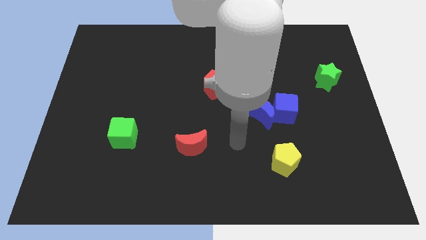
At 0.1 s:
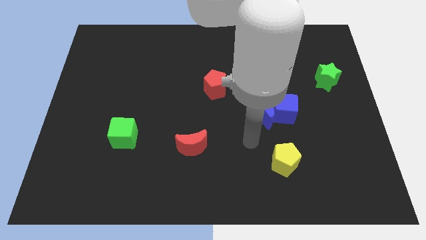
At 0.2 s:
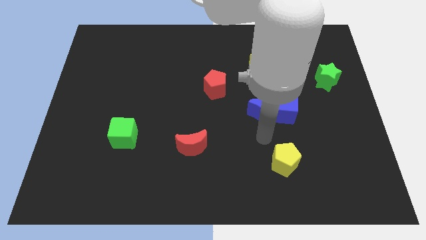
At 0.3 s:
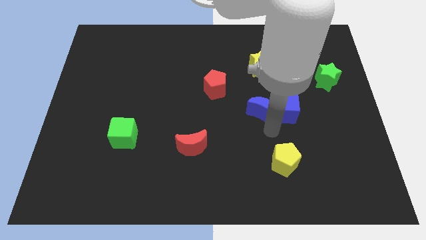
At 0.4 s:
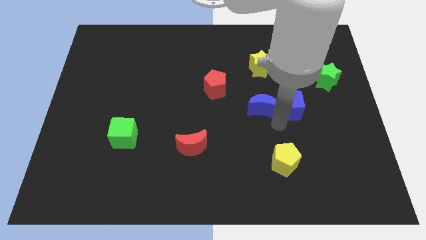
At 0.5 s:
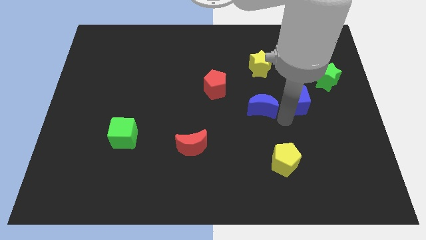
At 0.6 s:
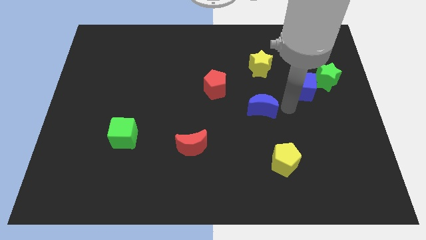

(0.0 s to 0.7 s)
pull the blue moon apart from the blue cube

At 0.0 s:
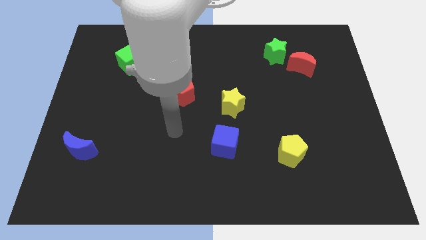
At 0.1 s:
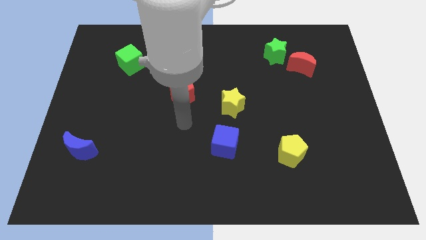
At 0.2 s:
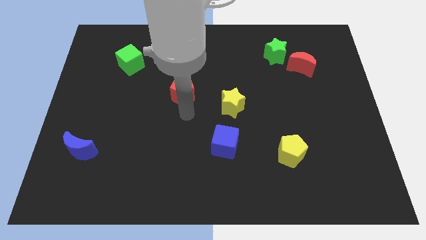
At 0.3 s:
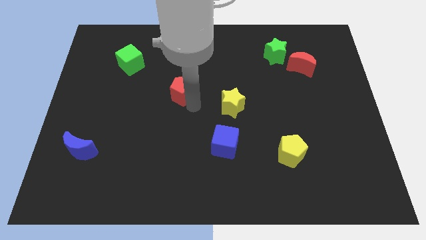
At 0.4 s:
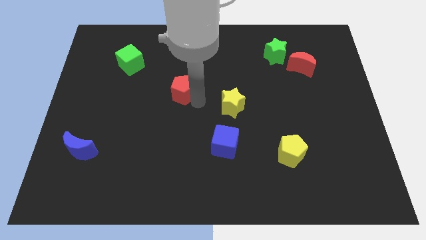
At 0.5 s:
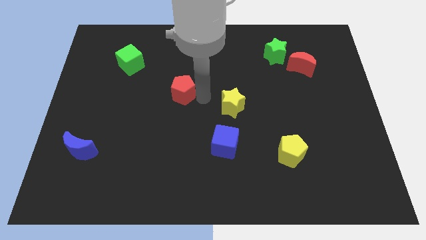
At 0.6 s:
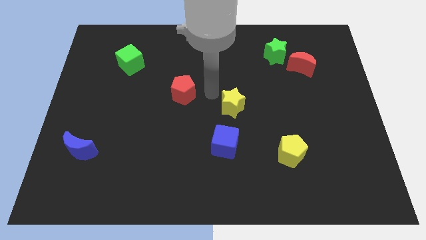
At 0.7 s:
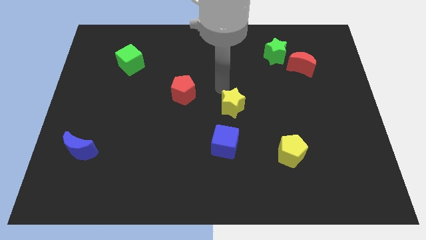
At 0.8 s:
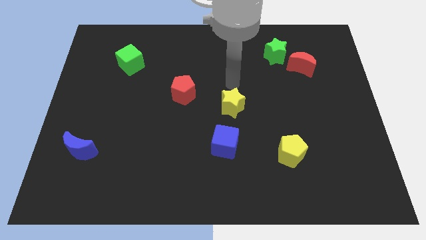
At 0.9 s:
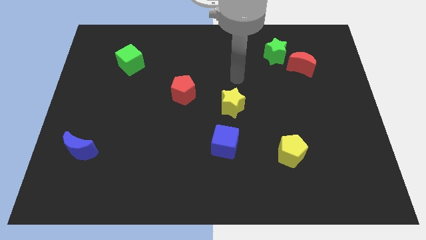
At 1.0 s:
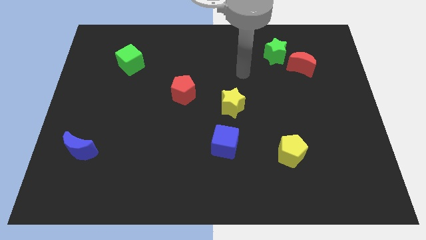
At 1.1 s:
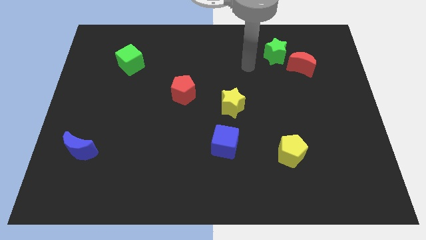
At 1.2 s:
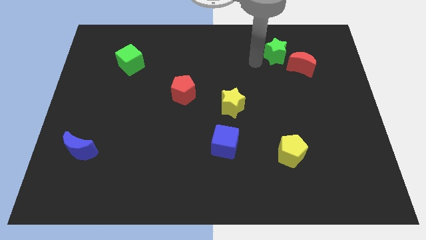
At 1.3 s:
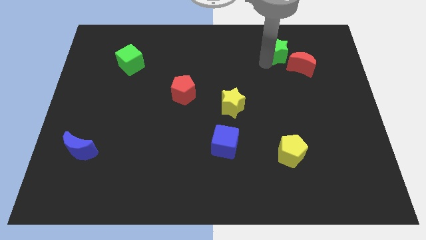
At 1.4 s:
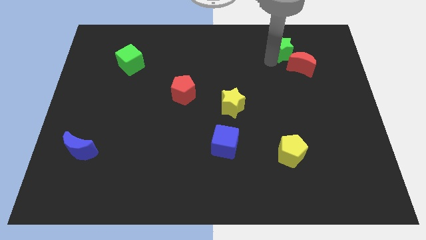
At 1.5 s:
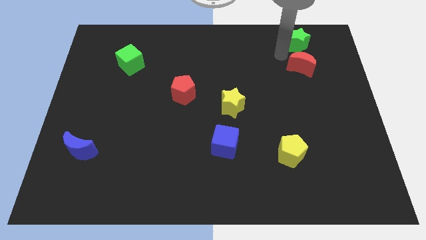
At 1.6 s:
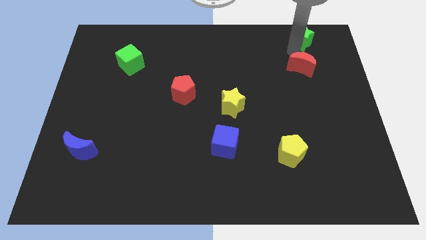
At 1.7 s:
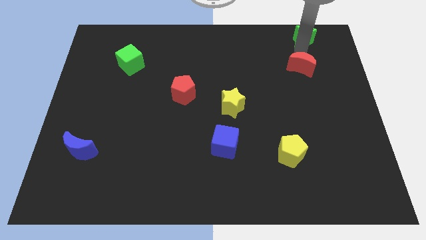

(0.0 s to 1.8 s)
separate the red moon from the green star

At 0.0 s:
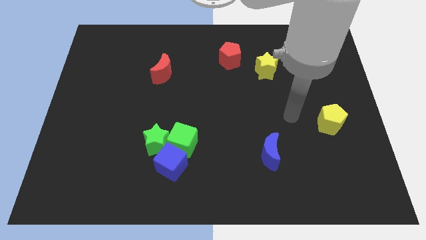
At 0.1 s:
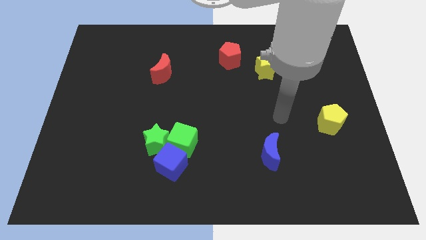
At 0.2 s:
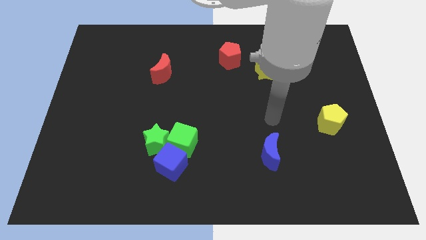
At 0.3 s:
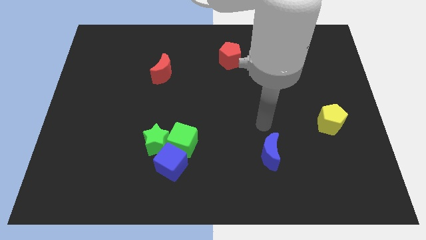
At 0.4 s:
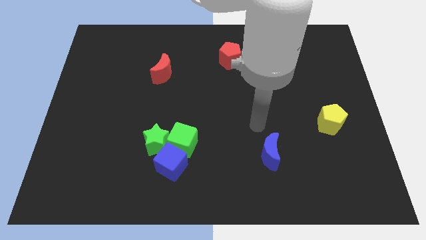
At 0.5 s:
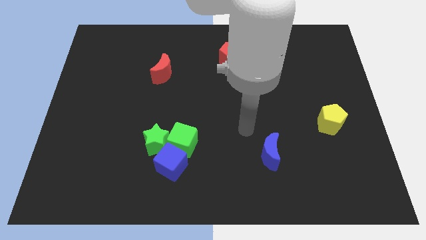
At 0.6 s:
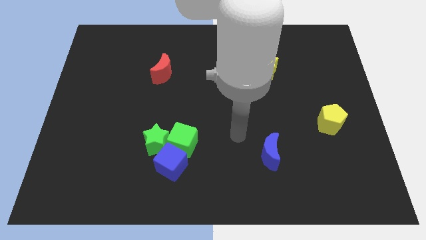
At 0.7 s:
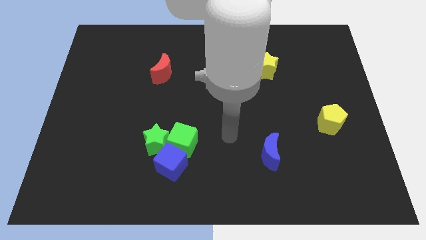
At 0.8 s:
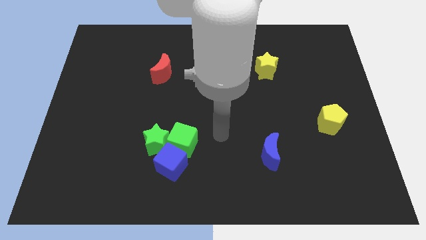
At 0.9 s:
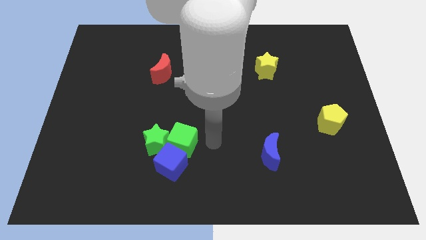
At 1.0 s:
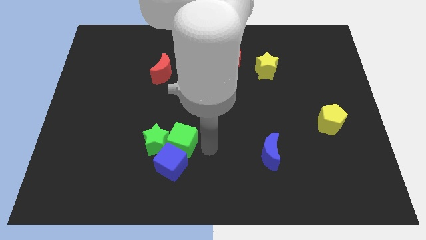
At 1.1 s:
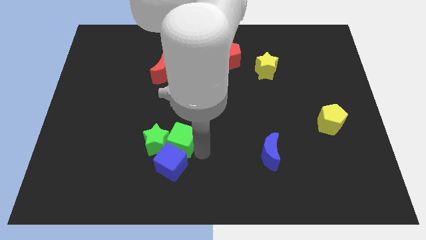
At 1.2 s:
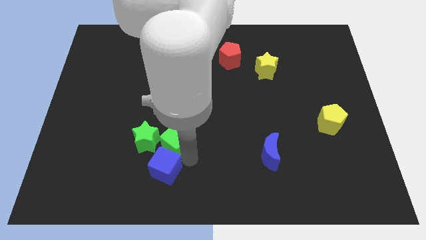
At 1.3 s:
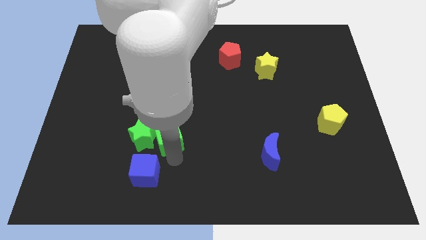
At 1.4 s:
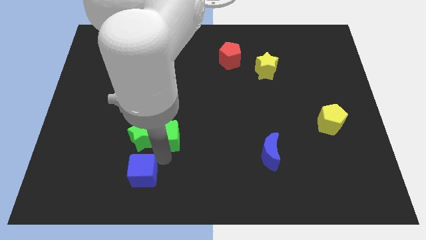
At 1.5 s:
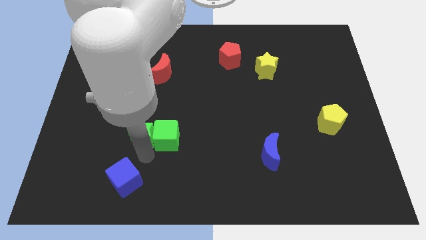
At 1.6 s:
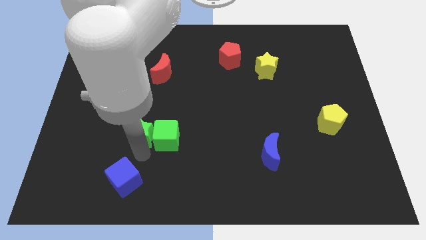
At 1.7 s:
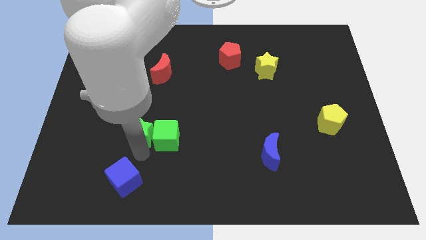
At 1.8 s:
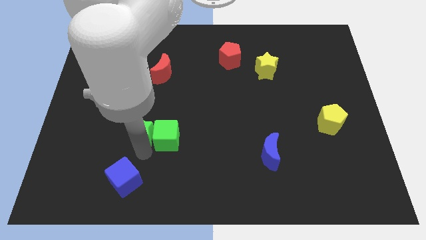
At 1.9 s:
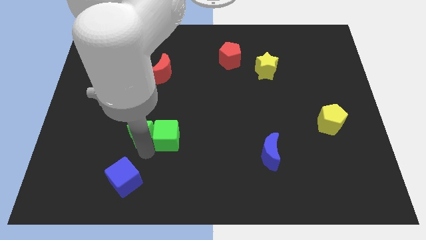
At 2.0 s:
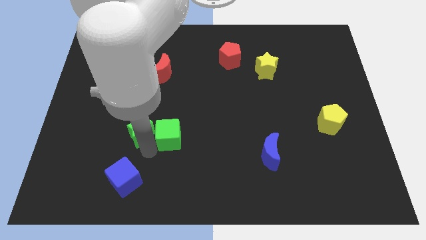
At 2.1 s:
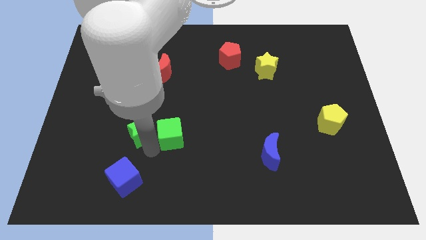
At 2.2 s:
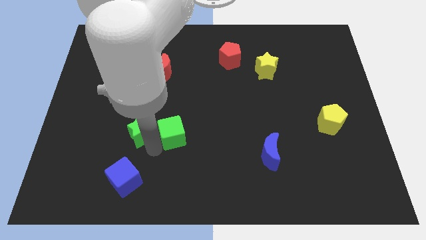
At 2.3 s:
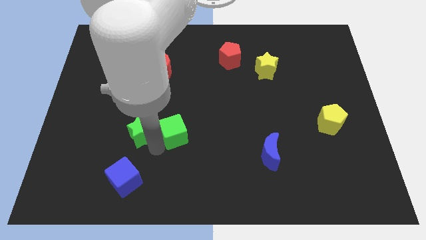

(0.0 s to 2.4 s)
move the green cube away from the blue cube and green star

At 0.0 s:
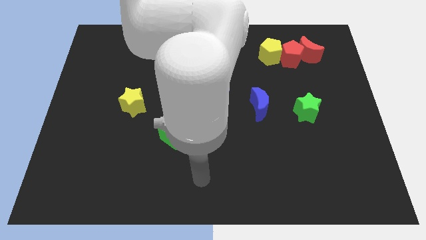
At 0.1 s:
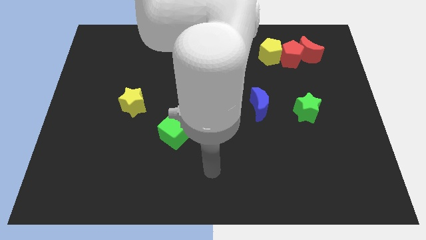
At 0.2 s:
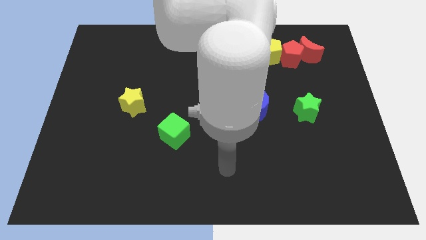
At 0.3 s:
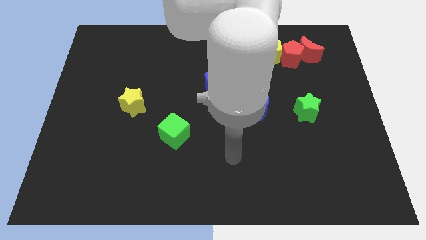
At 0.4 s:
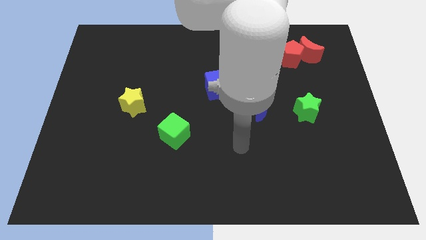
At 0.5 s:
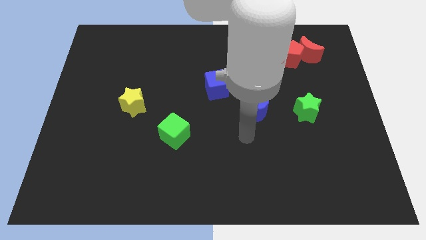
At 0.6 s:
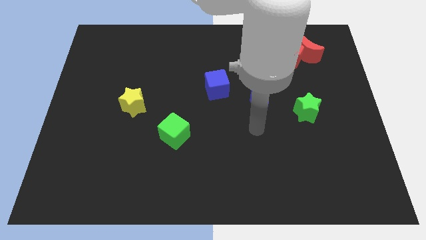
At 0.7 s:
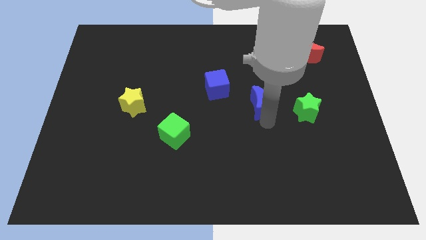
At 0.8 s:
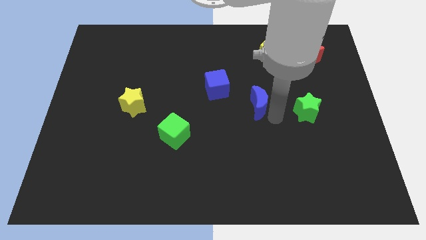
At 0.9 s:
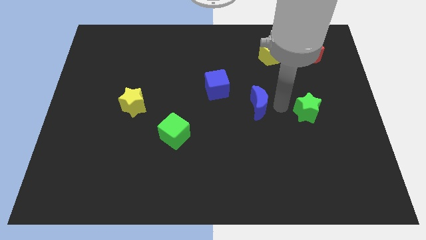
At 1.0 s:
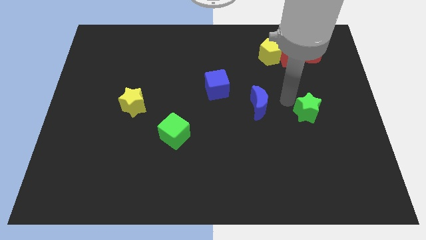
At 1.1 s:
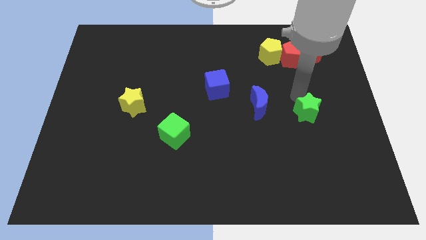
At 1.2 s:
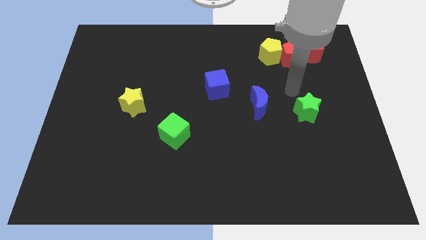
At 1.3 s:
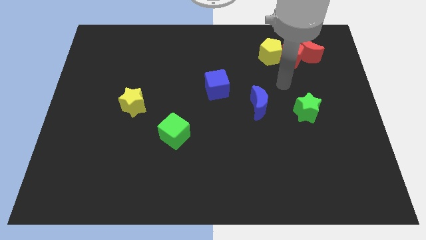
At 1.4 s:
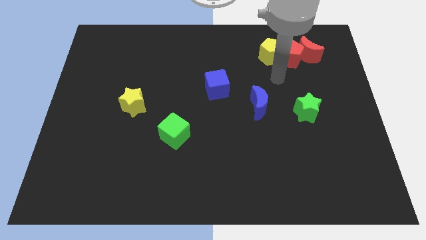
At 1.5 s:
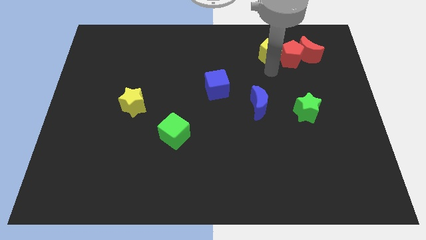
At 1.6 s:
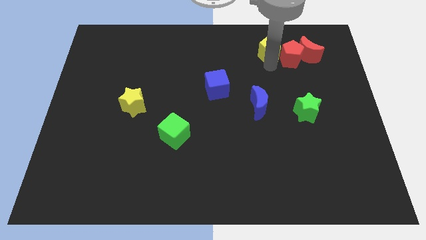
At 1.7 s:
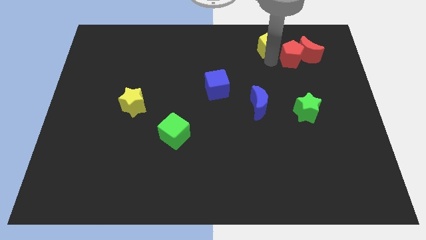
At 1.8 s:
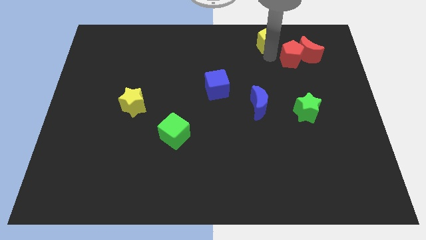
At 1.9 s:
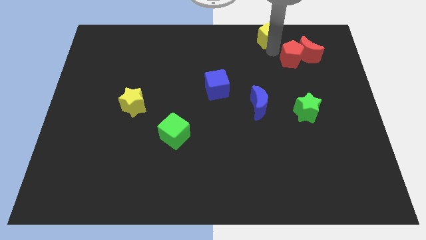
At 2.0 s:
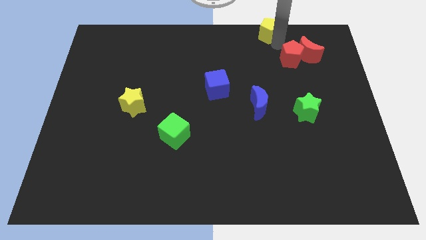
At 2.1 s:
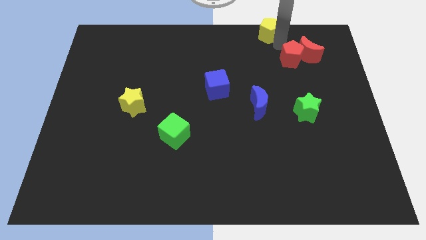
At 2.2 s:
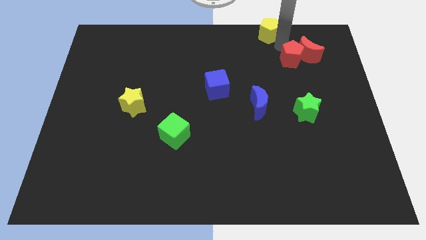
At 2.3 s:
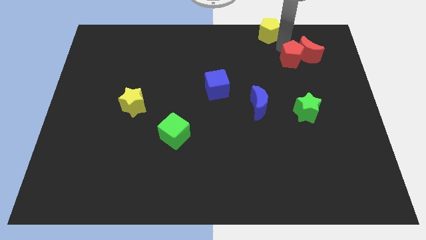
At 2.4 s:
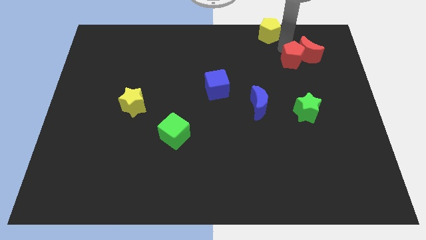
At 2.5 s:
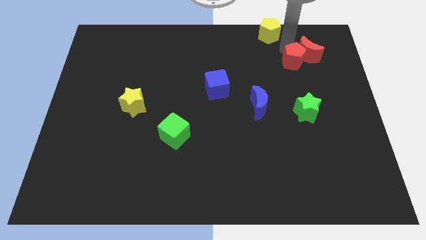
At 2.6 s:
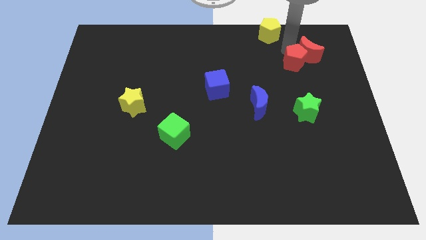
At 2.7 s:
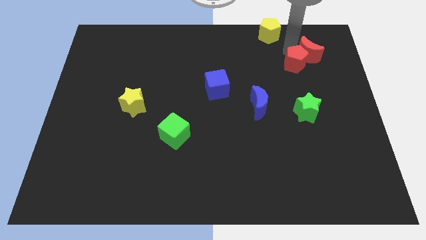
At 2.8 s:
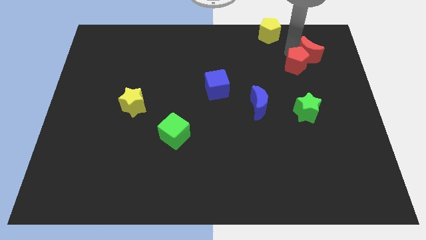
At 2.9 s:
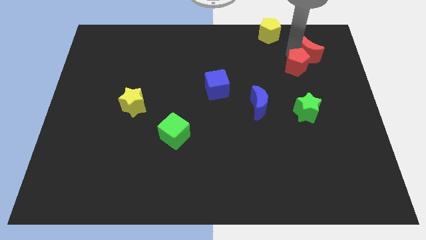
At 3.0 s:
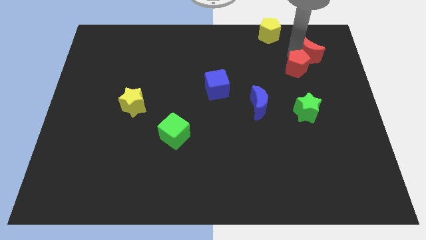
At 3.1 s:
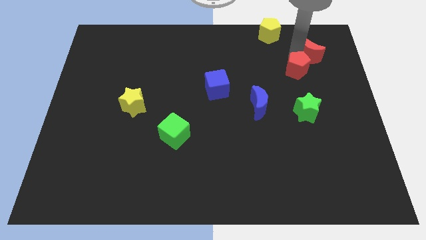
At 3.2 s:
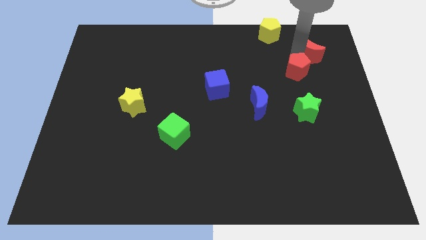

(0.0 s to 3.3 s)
separate the red pentagon from the red moon and yellow pentagon

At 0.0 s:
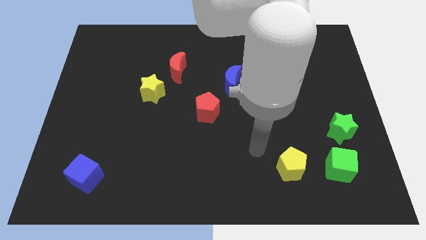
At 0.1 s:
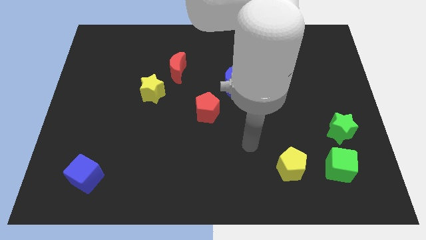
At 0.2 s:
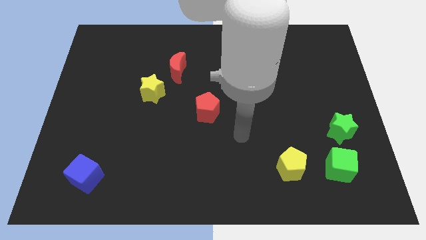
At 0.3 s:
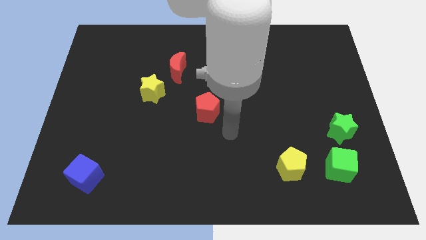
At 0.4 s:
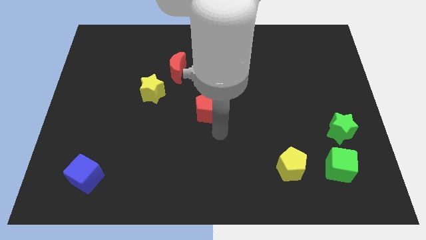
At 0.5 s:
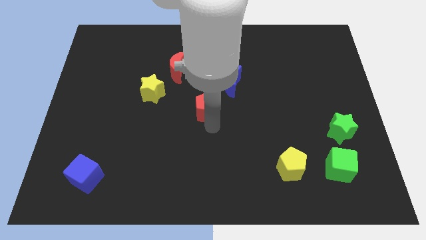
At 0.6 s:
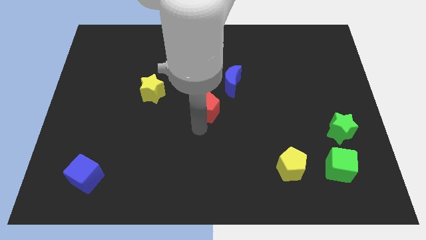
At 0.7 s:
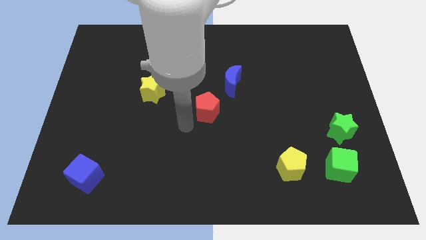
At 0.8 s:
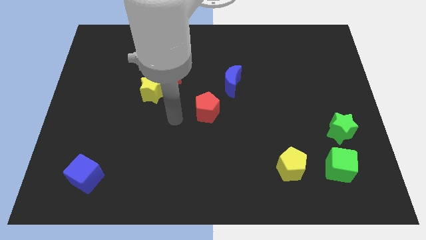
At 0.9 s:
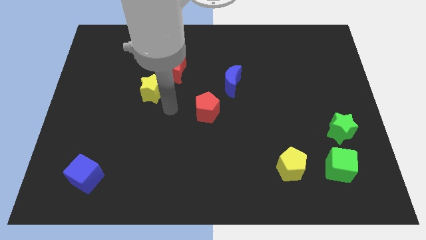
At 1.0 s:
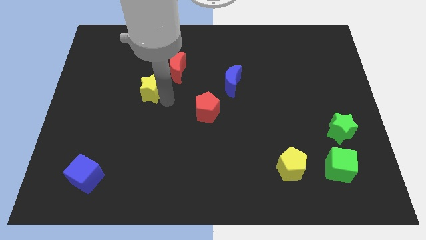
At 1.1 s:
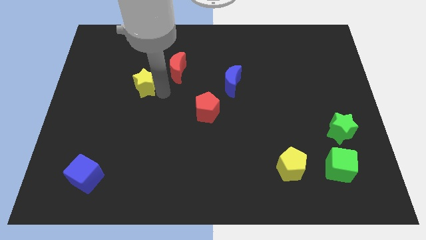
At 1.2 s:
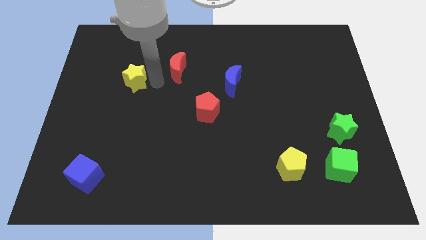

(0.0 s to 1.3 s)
separate the red moon from the yellow star
